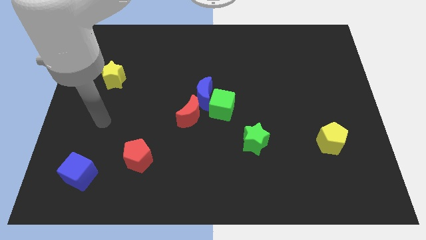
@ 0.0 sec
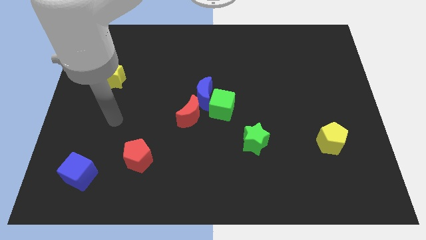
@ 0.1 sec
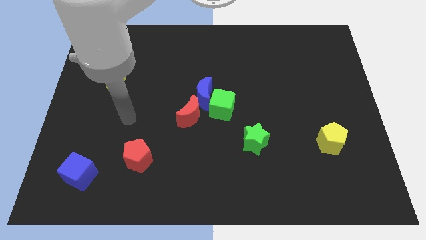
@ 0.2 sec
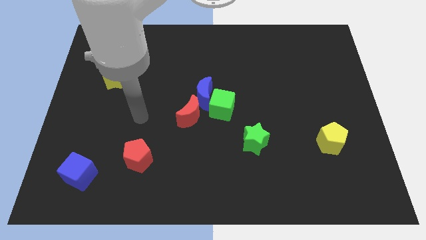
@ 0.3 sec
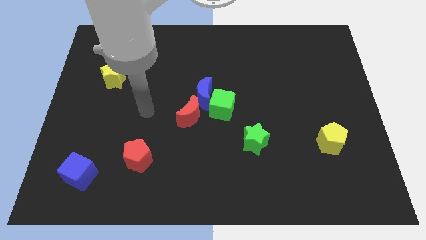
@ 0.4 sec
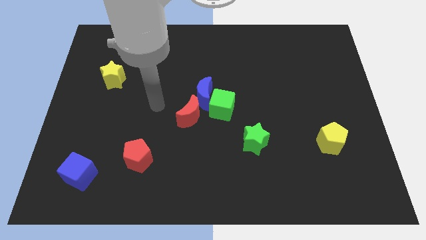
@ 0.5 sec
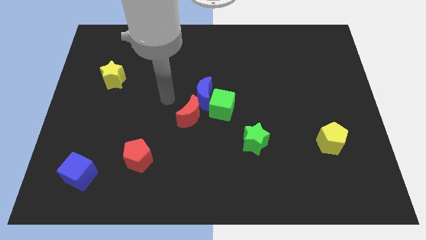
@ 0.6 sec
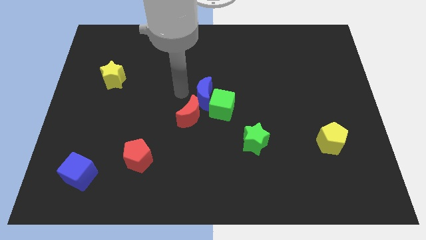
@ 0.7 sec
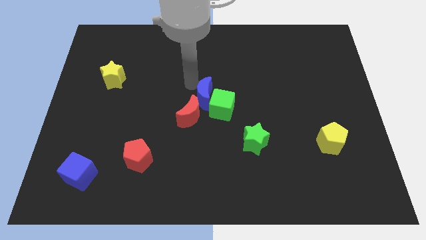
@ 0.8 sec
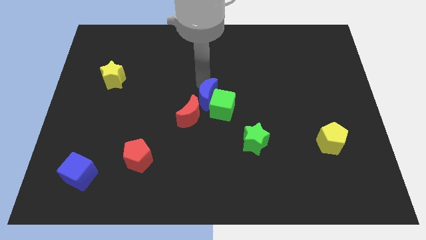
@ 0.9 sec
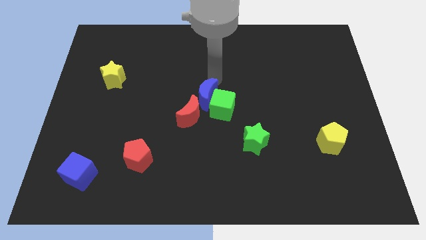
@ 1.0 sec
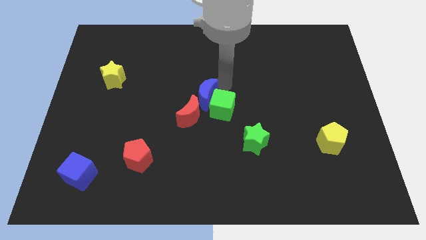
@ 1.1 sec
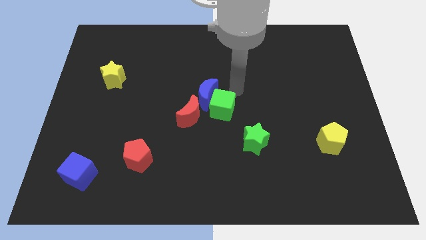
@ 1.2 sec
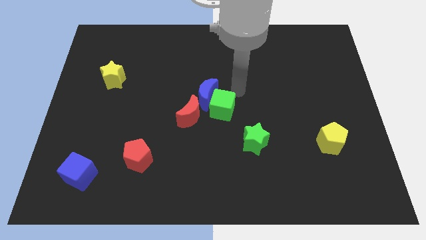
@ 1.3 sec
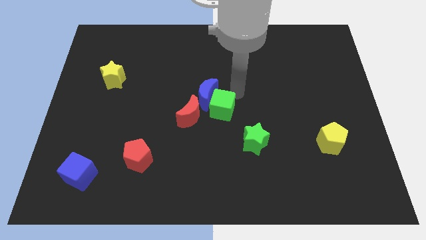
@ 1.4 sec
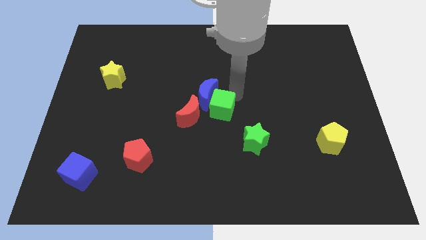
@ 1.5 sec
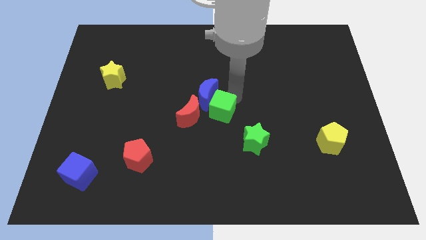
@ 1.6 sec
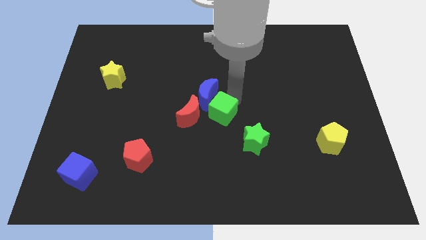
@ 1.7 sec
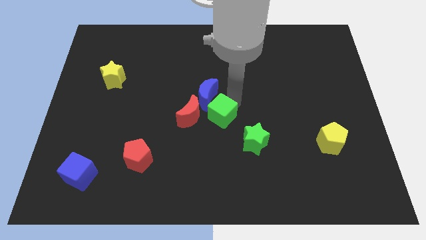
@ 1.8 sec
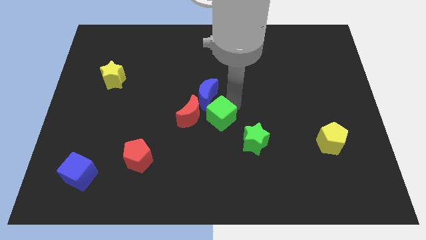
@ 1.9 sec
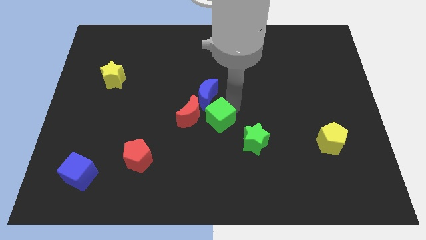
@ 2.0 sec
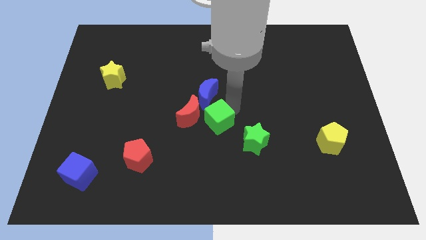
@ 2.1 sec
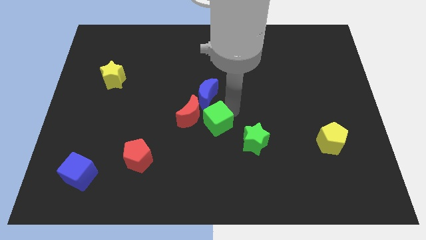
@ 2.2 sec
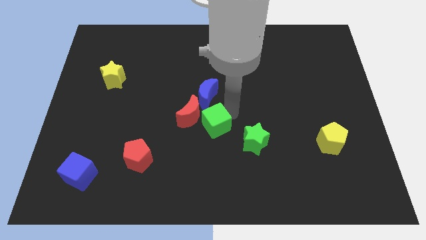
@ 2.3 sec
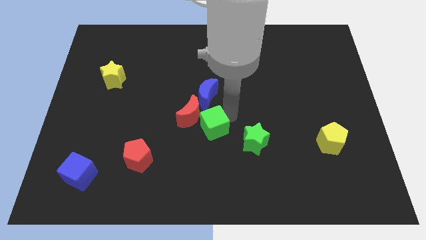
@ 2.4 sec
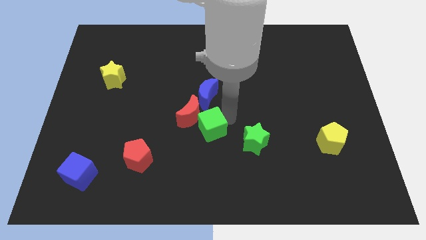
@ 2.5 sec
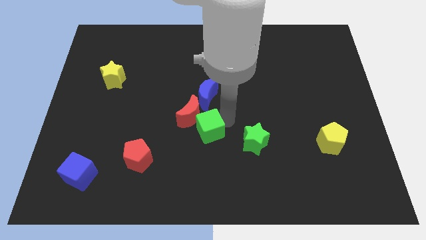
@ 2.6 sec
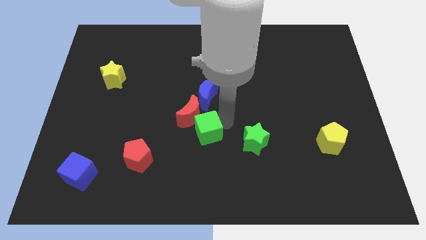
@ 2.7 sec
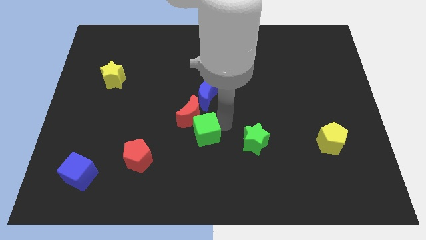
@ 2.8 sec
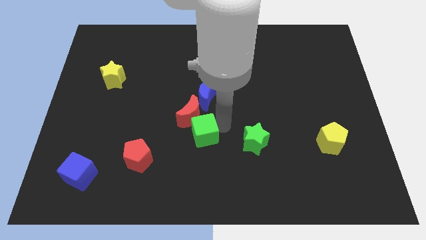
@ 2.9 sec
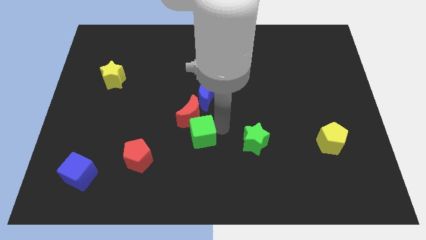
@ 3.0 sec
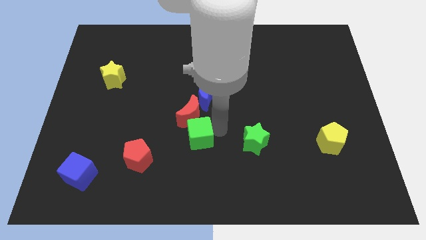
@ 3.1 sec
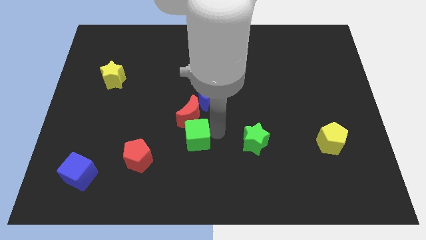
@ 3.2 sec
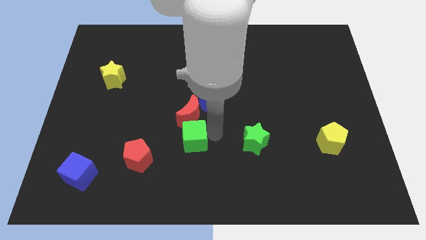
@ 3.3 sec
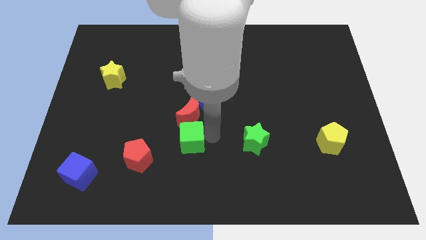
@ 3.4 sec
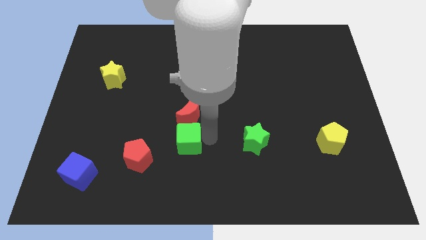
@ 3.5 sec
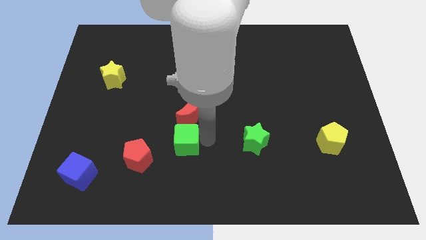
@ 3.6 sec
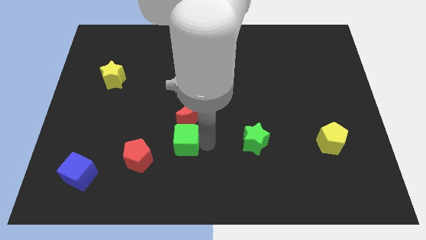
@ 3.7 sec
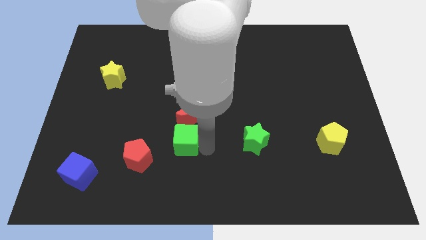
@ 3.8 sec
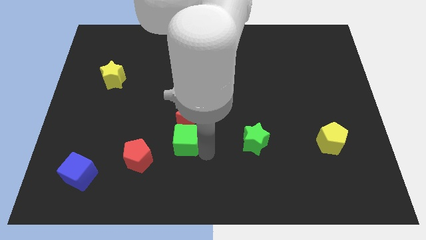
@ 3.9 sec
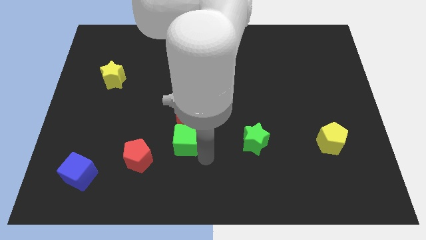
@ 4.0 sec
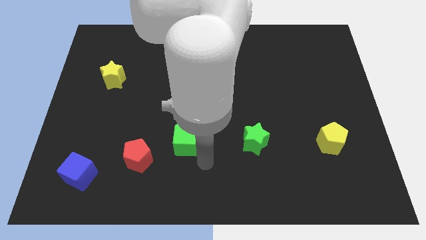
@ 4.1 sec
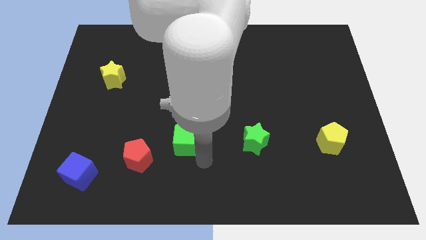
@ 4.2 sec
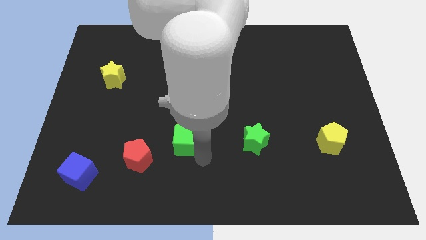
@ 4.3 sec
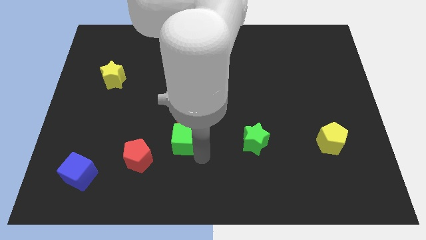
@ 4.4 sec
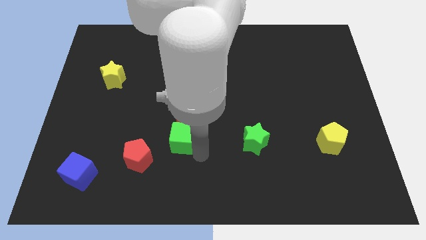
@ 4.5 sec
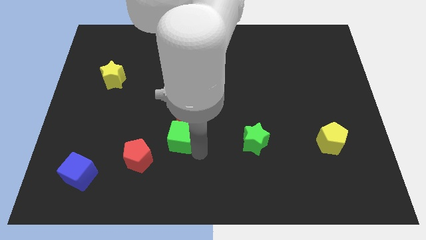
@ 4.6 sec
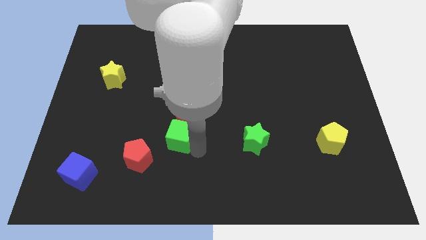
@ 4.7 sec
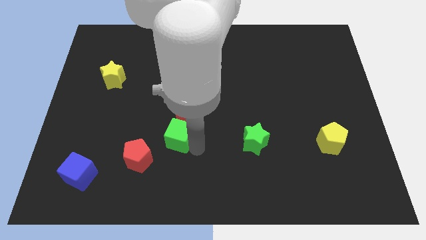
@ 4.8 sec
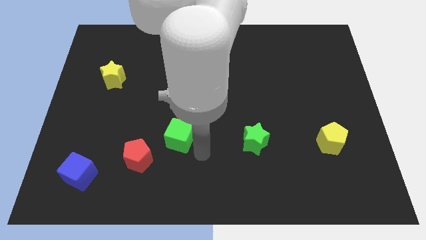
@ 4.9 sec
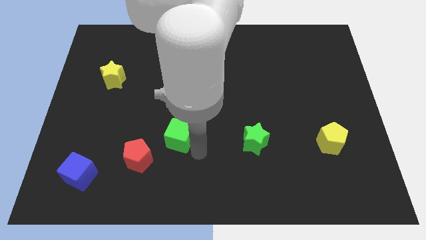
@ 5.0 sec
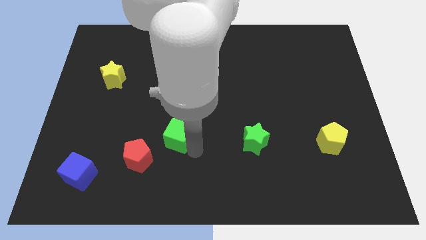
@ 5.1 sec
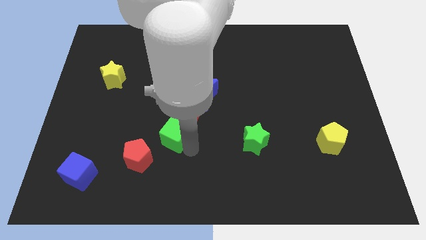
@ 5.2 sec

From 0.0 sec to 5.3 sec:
slide the green cube slightly left

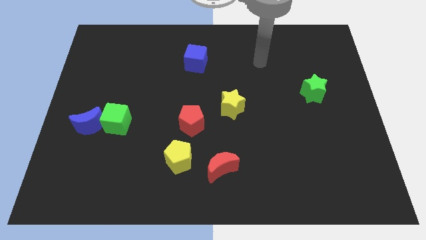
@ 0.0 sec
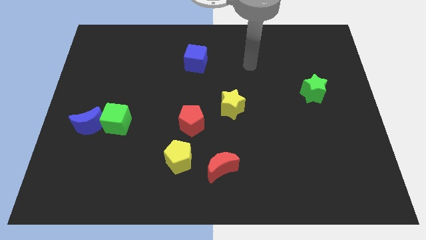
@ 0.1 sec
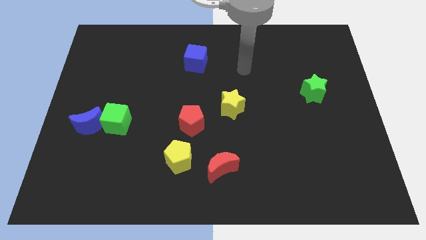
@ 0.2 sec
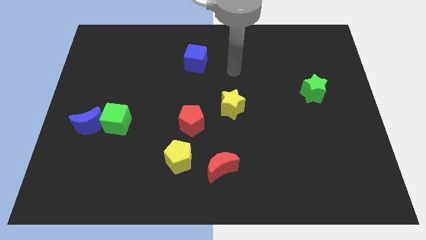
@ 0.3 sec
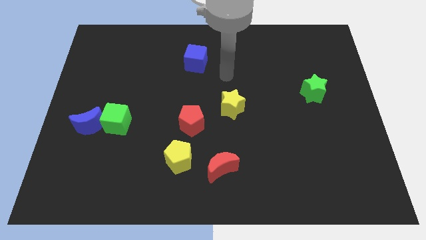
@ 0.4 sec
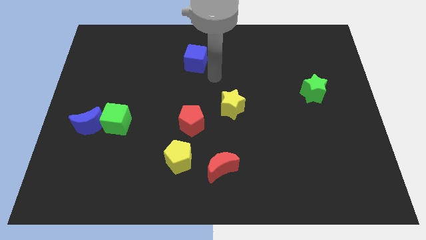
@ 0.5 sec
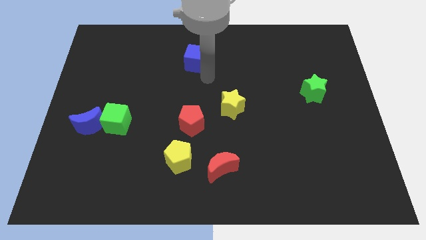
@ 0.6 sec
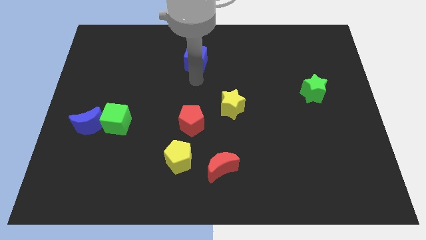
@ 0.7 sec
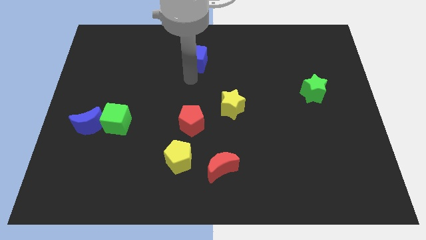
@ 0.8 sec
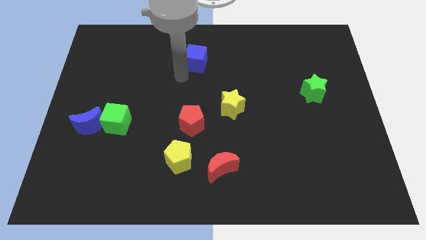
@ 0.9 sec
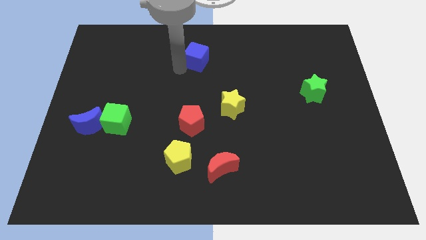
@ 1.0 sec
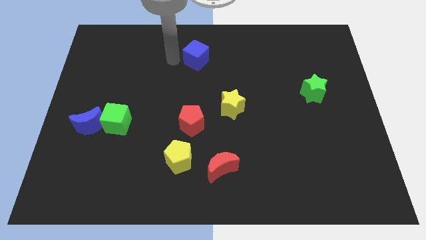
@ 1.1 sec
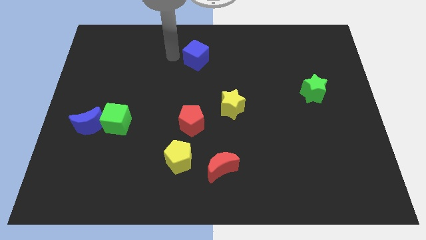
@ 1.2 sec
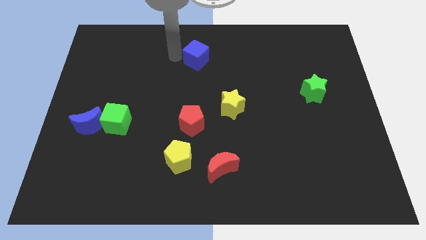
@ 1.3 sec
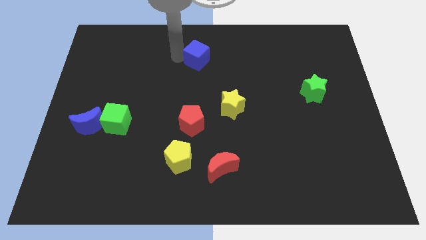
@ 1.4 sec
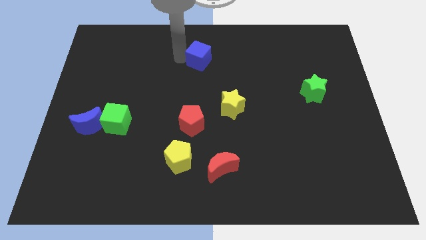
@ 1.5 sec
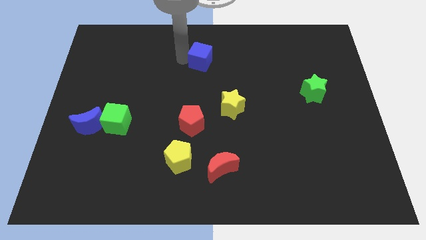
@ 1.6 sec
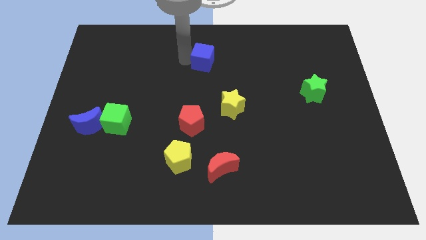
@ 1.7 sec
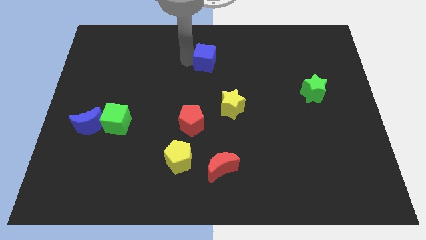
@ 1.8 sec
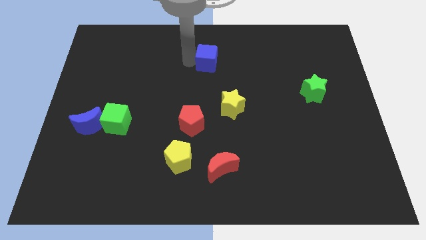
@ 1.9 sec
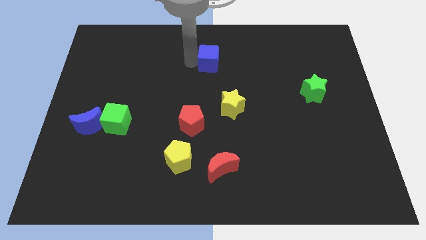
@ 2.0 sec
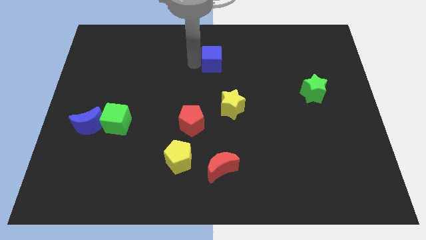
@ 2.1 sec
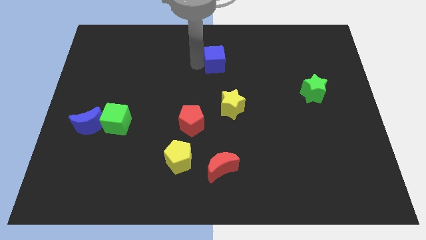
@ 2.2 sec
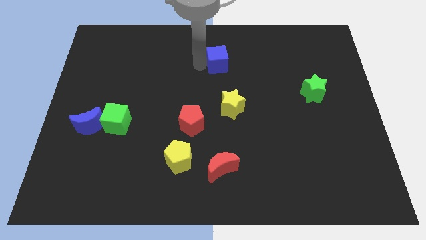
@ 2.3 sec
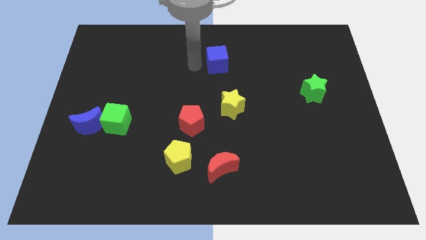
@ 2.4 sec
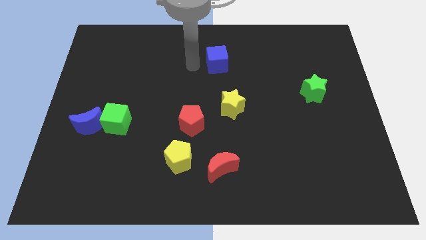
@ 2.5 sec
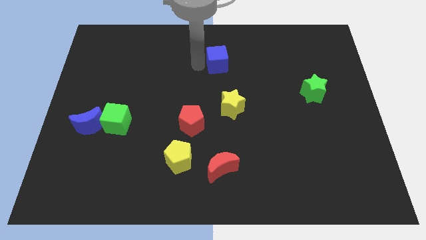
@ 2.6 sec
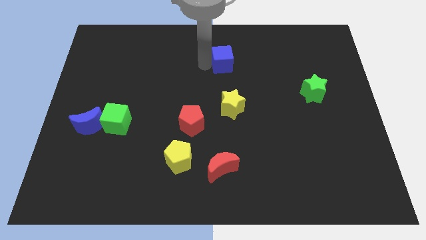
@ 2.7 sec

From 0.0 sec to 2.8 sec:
push the blue cube somewhat to the right

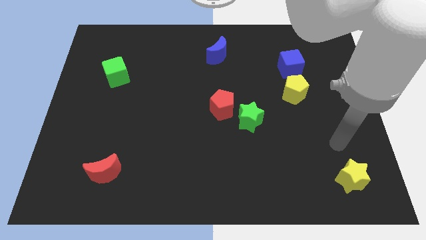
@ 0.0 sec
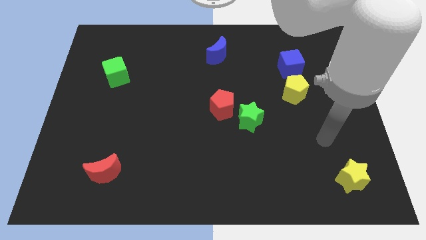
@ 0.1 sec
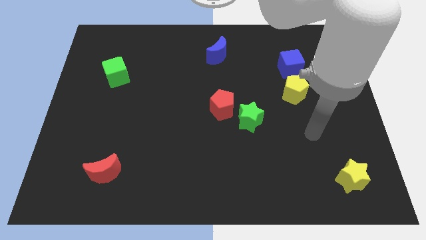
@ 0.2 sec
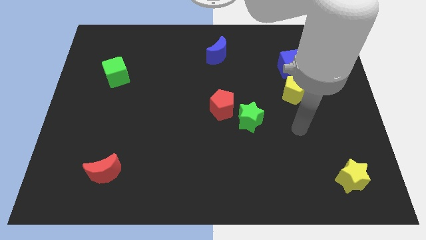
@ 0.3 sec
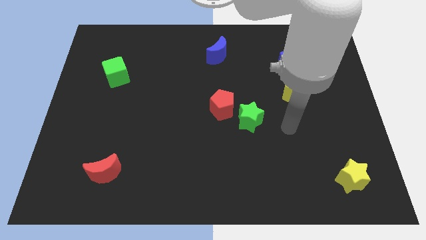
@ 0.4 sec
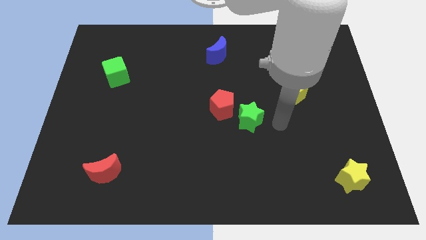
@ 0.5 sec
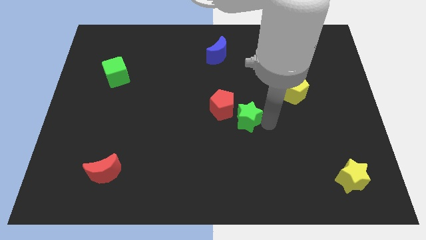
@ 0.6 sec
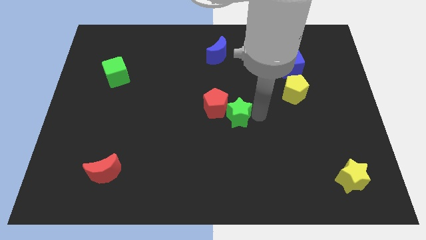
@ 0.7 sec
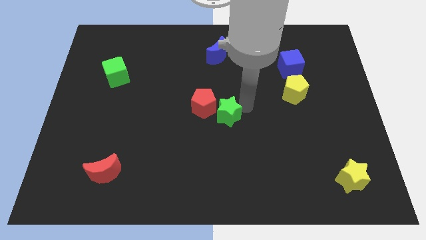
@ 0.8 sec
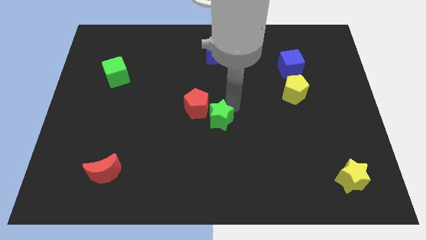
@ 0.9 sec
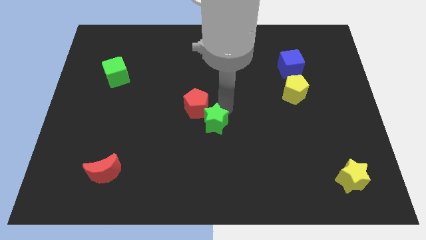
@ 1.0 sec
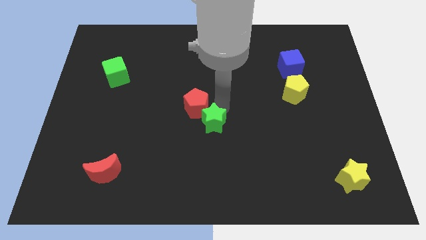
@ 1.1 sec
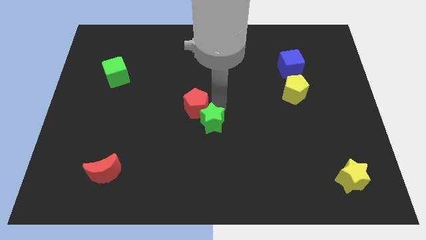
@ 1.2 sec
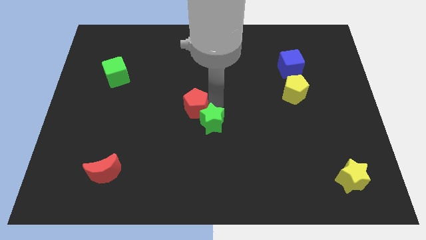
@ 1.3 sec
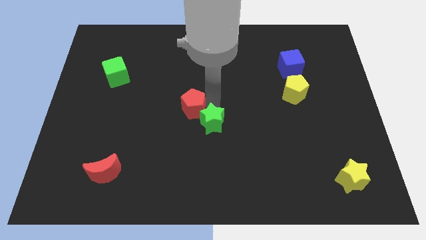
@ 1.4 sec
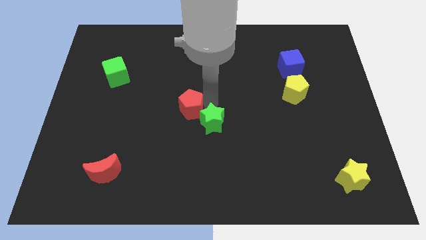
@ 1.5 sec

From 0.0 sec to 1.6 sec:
move the red pentagon a bit left
